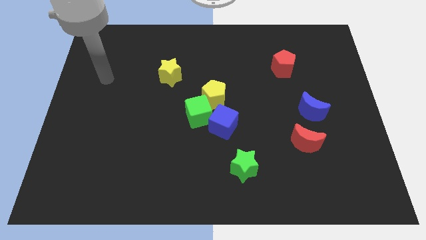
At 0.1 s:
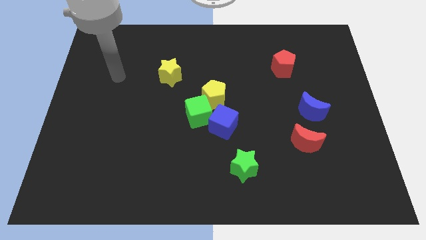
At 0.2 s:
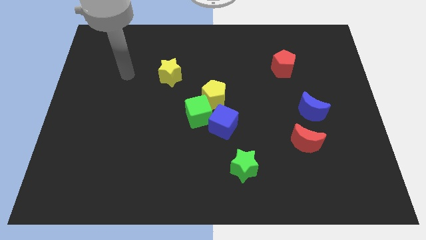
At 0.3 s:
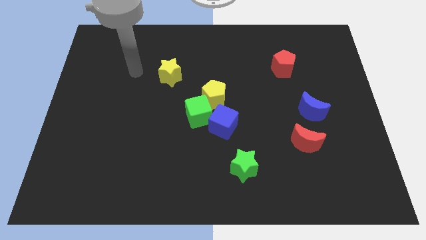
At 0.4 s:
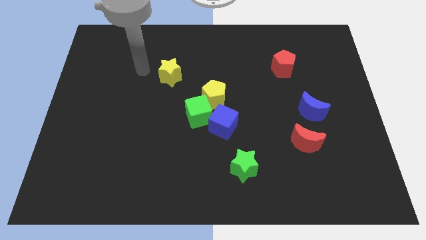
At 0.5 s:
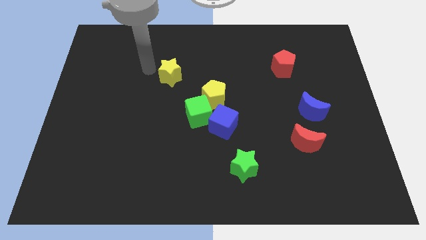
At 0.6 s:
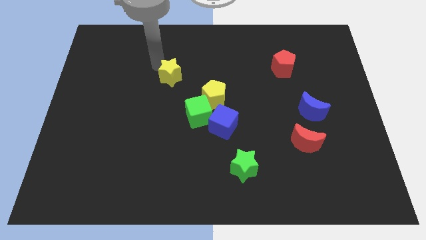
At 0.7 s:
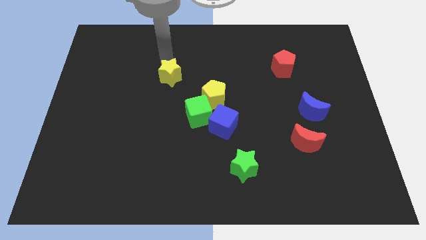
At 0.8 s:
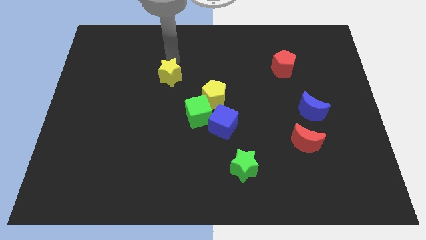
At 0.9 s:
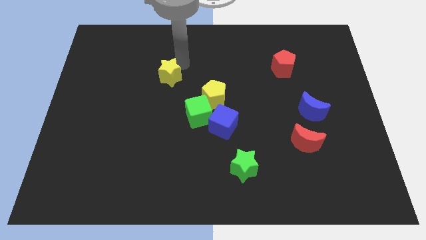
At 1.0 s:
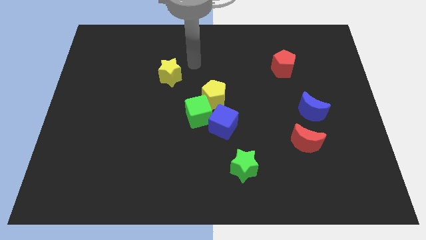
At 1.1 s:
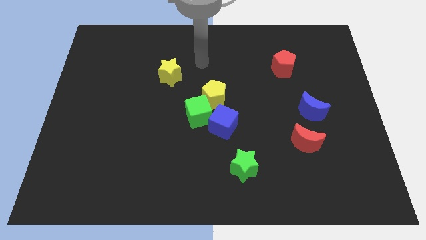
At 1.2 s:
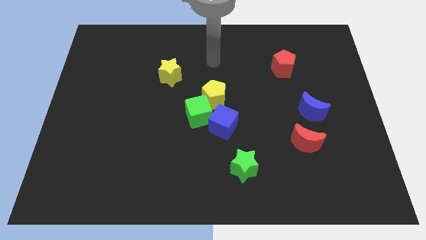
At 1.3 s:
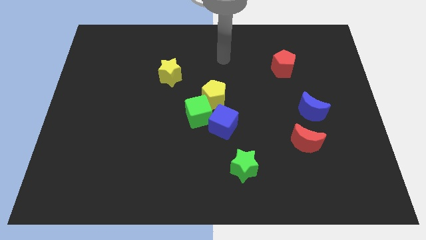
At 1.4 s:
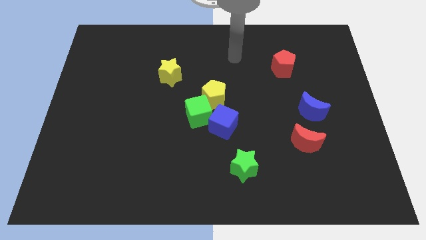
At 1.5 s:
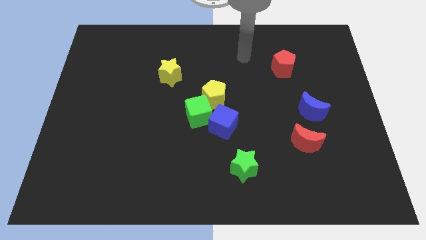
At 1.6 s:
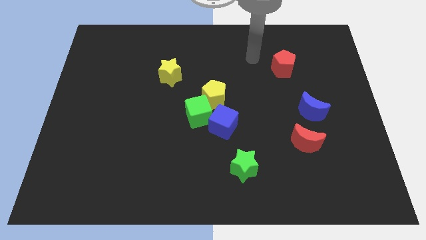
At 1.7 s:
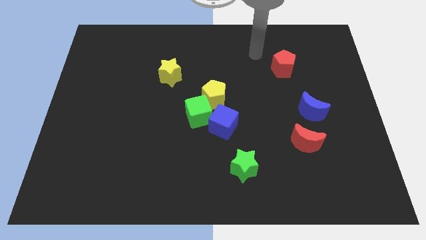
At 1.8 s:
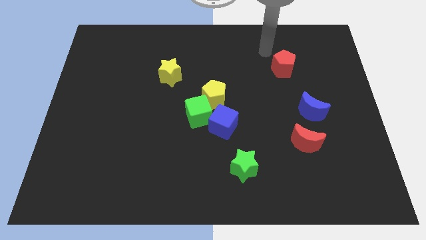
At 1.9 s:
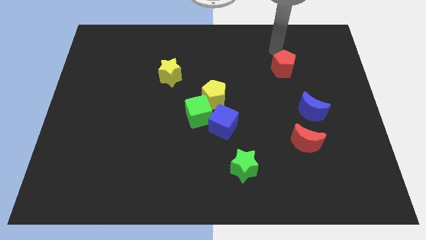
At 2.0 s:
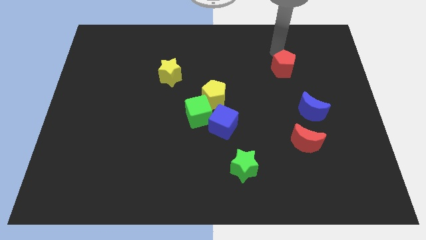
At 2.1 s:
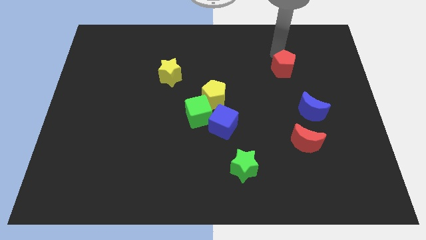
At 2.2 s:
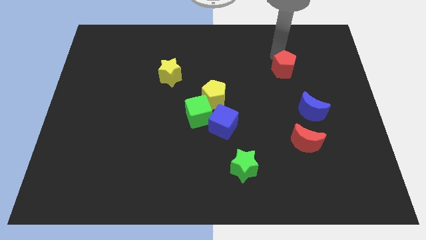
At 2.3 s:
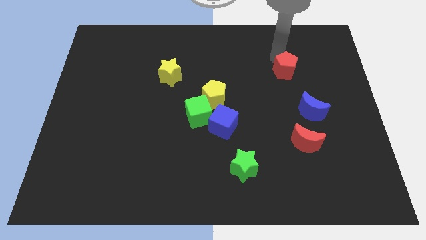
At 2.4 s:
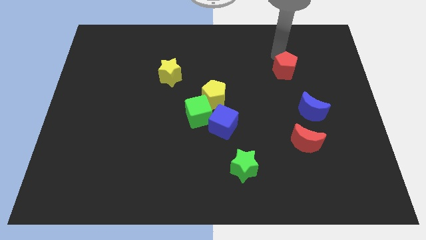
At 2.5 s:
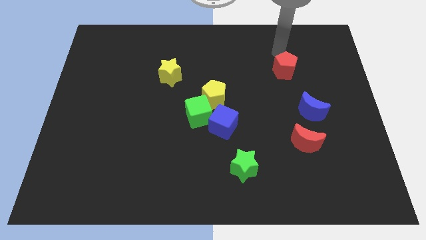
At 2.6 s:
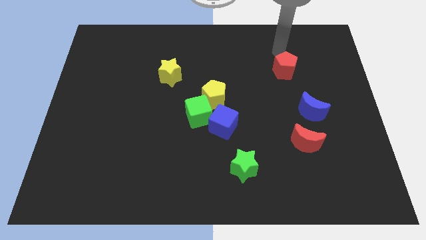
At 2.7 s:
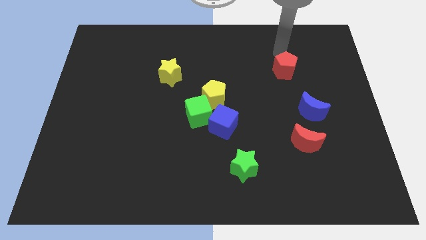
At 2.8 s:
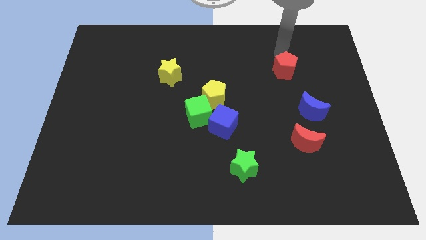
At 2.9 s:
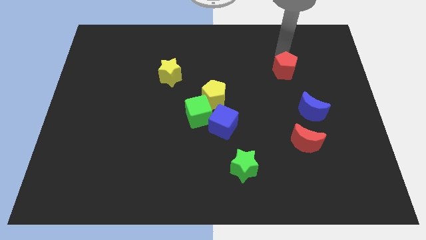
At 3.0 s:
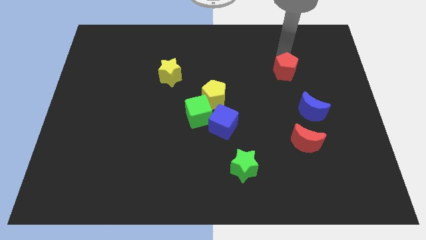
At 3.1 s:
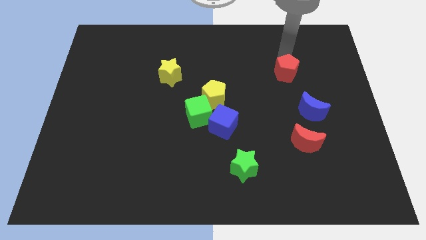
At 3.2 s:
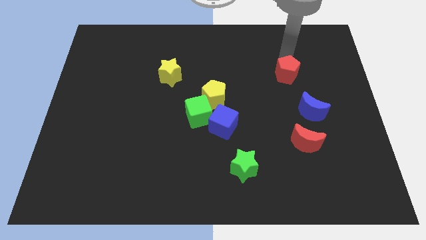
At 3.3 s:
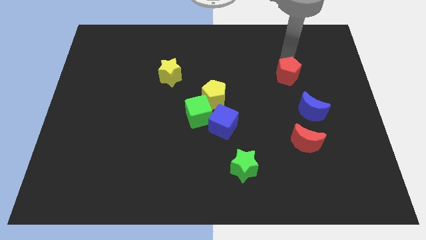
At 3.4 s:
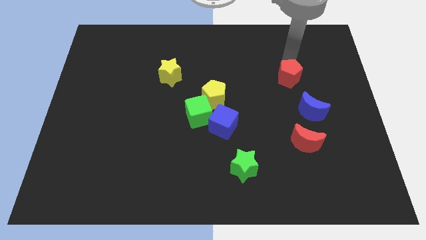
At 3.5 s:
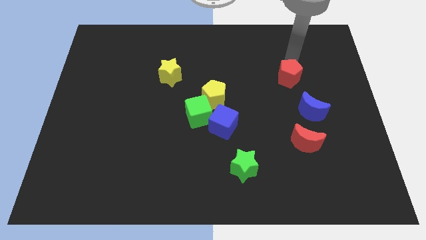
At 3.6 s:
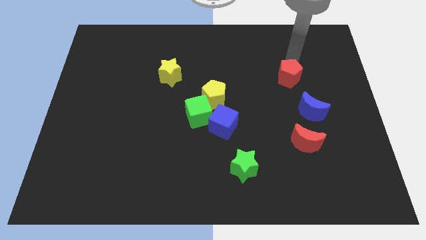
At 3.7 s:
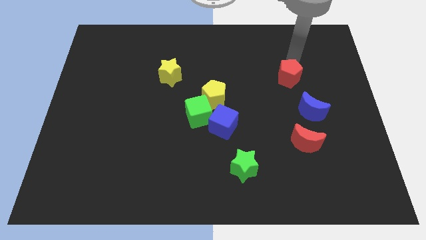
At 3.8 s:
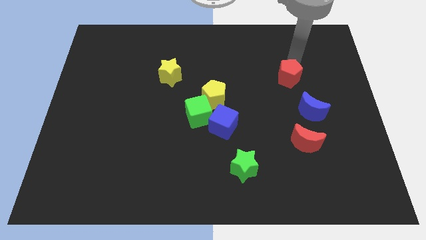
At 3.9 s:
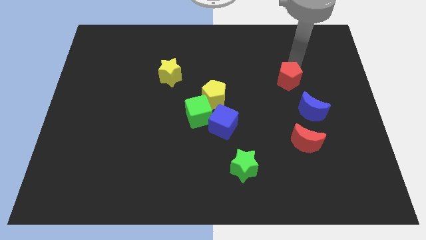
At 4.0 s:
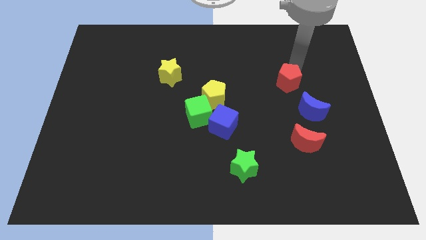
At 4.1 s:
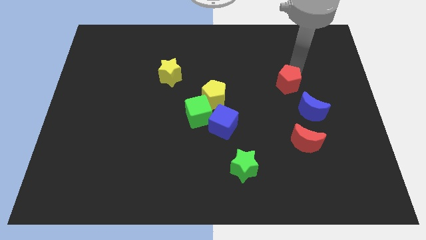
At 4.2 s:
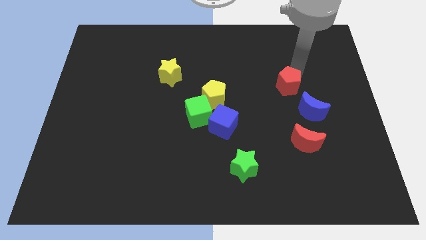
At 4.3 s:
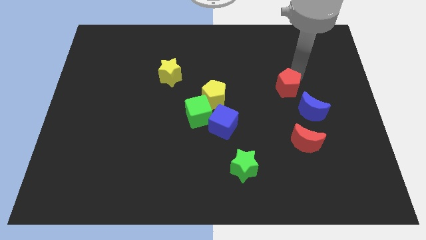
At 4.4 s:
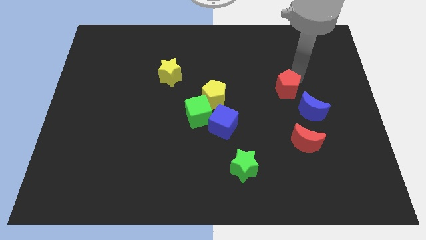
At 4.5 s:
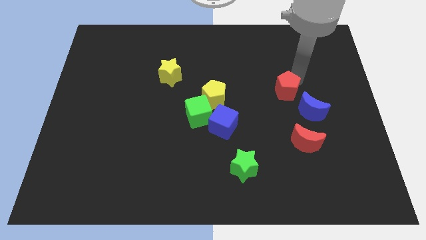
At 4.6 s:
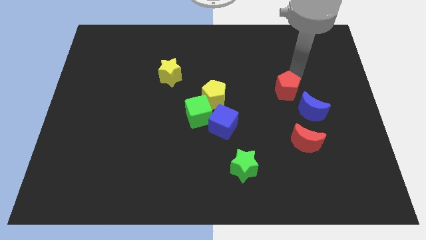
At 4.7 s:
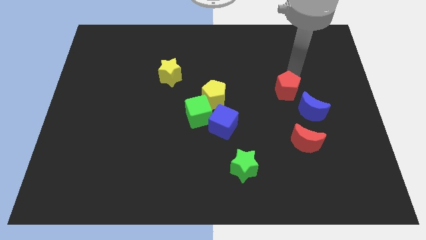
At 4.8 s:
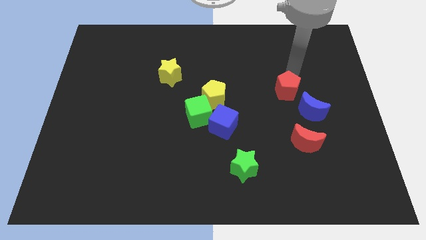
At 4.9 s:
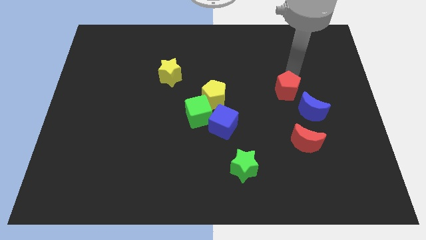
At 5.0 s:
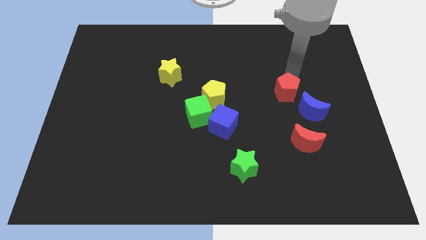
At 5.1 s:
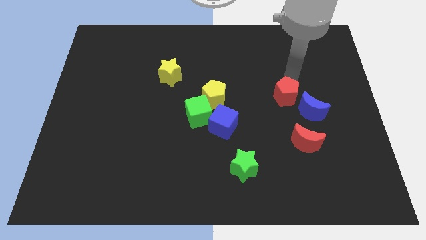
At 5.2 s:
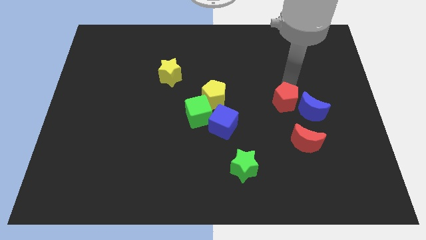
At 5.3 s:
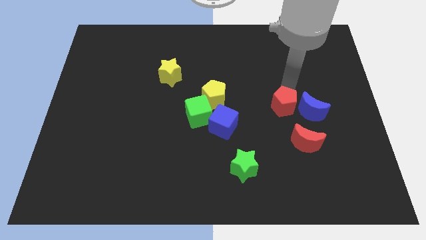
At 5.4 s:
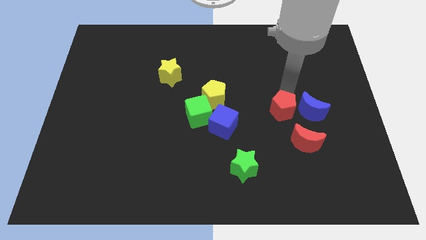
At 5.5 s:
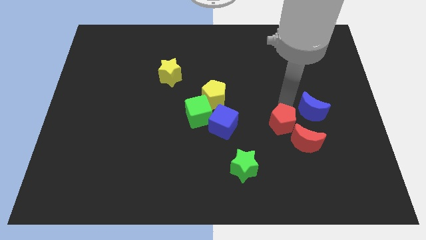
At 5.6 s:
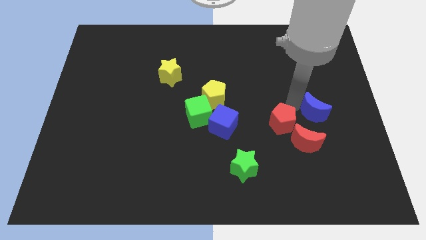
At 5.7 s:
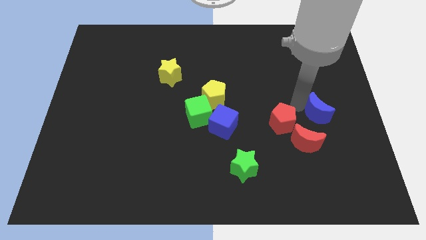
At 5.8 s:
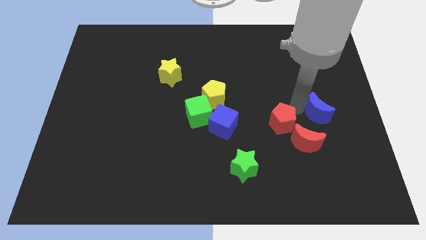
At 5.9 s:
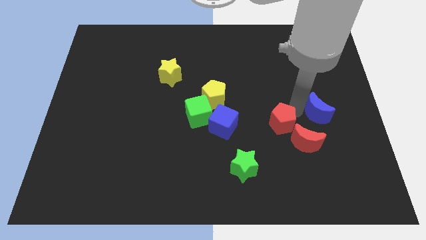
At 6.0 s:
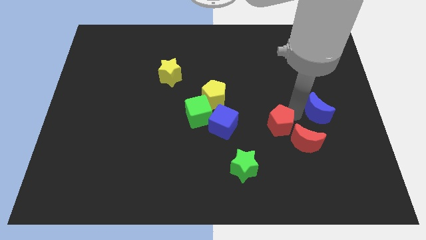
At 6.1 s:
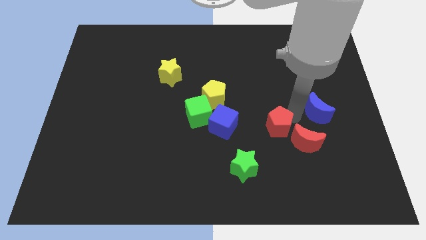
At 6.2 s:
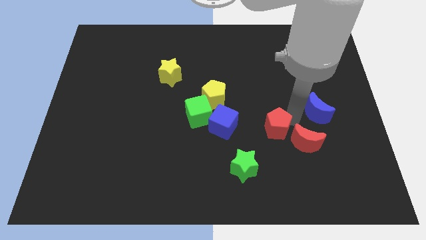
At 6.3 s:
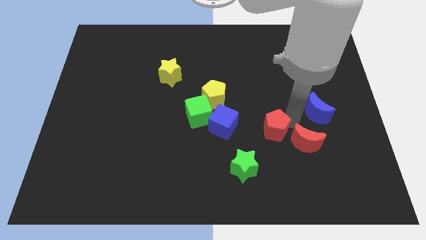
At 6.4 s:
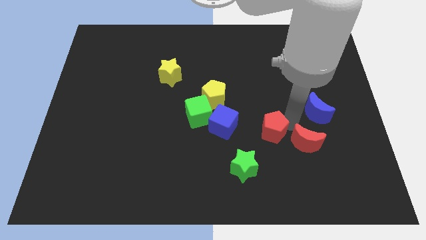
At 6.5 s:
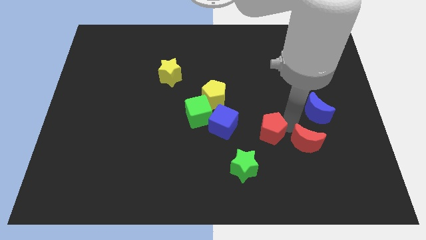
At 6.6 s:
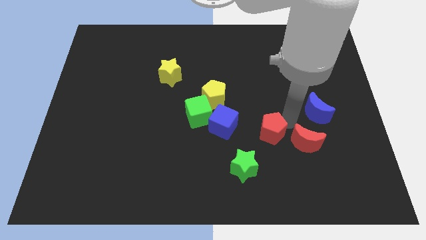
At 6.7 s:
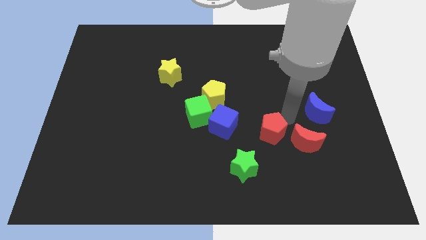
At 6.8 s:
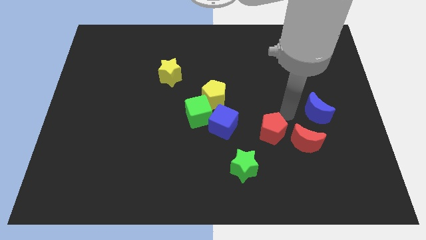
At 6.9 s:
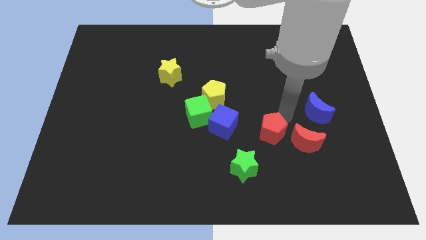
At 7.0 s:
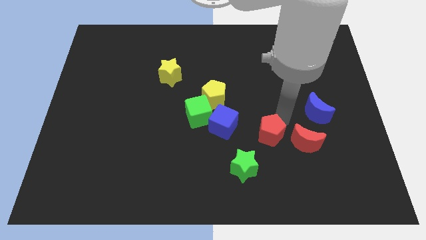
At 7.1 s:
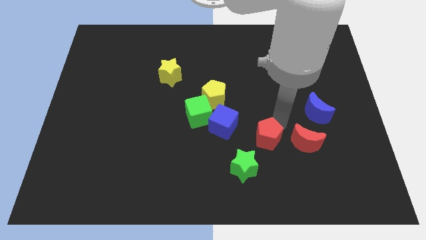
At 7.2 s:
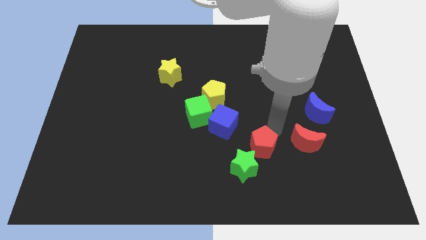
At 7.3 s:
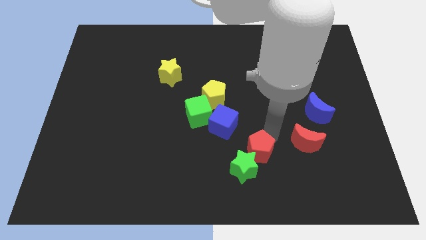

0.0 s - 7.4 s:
put the red pentagon towards the green star

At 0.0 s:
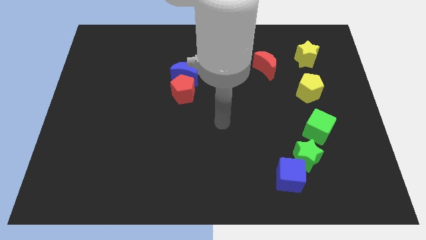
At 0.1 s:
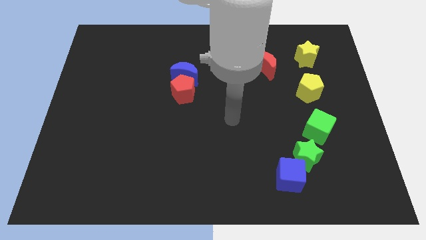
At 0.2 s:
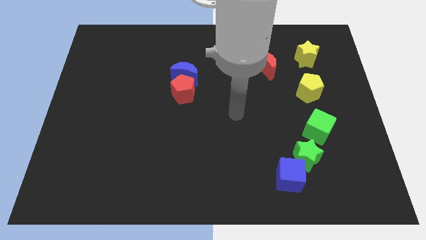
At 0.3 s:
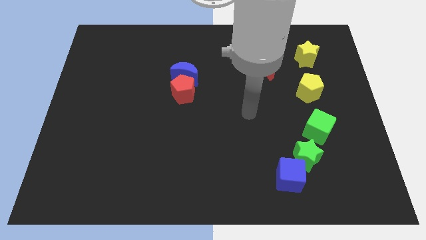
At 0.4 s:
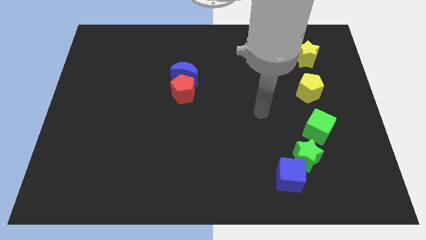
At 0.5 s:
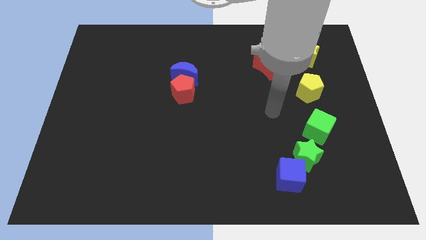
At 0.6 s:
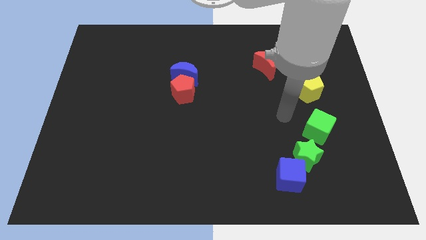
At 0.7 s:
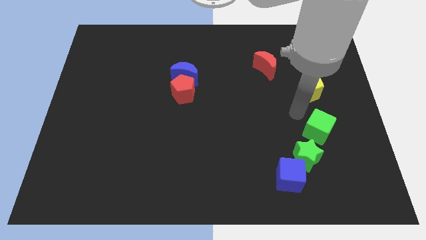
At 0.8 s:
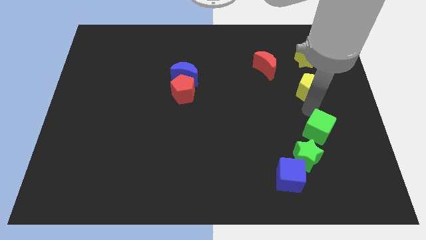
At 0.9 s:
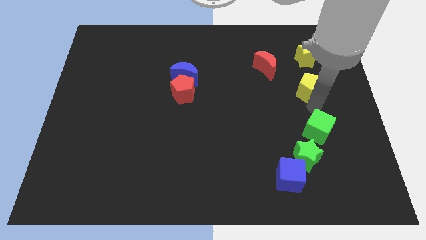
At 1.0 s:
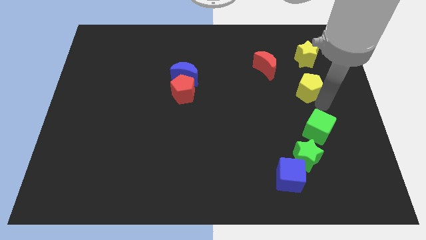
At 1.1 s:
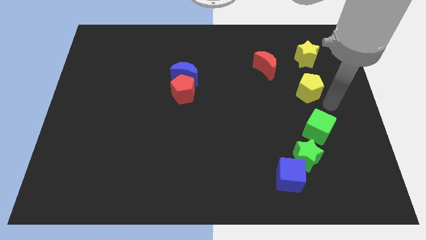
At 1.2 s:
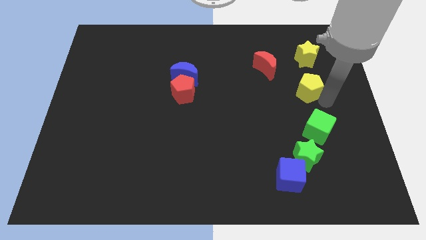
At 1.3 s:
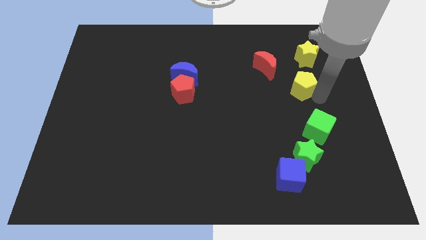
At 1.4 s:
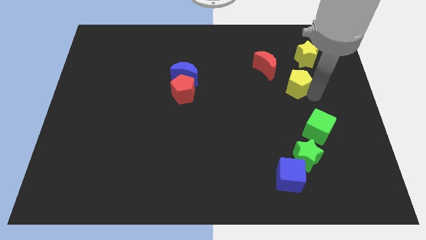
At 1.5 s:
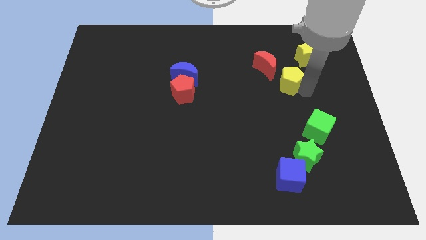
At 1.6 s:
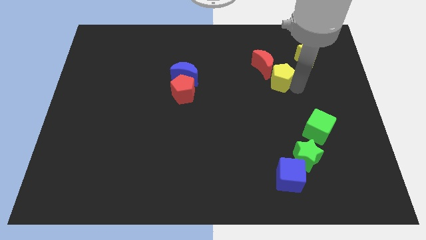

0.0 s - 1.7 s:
slide the yellow pentagon close to the red moon
